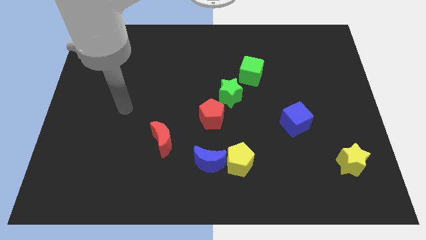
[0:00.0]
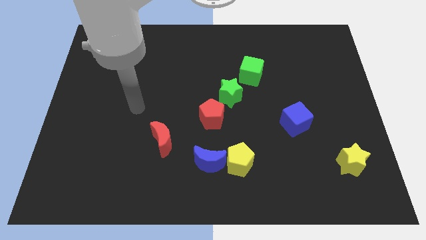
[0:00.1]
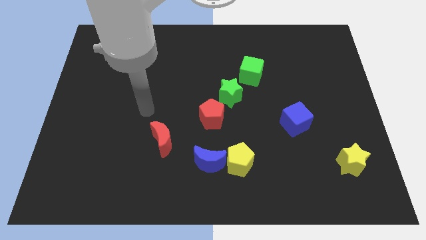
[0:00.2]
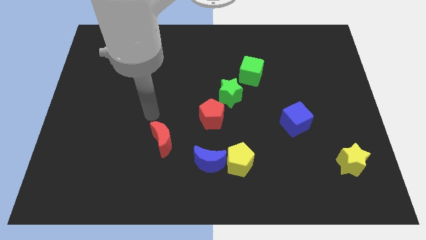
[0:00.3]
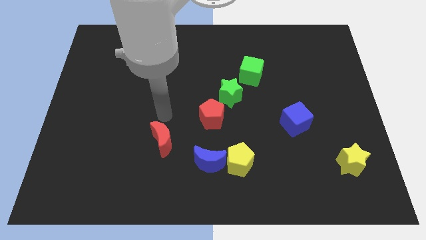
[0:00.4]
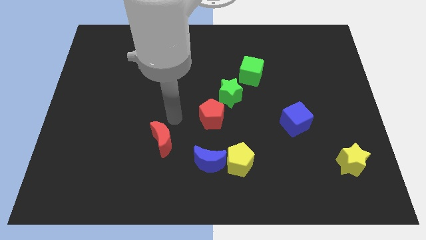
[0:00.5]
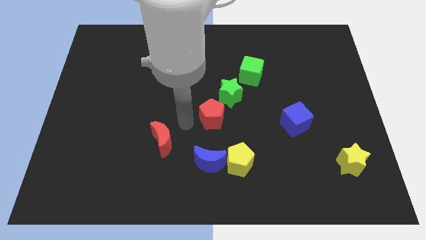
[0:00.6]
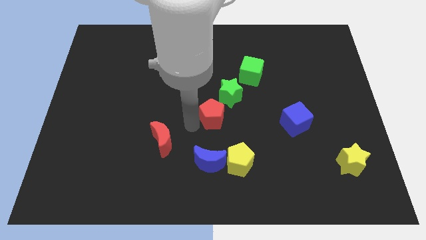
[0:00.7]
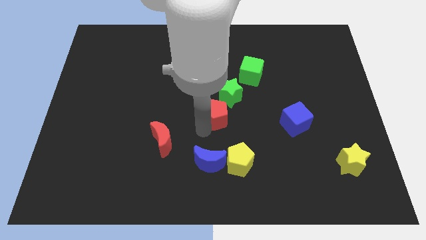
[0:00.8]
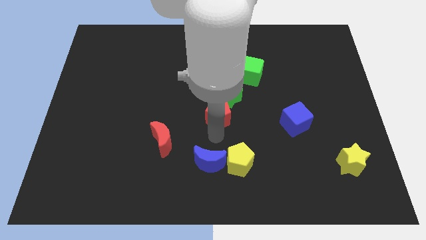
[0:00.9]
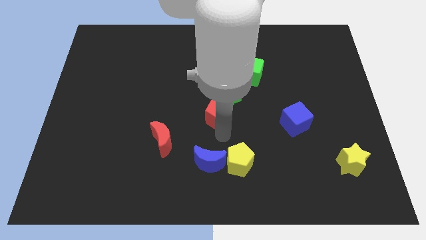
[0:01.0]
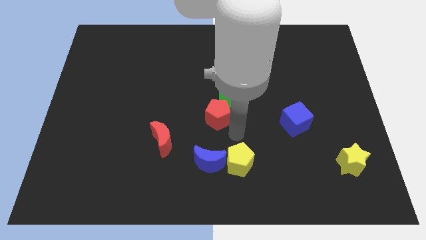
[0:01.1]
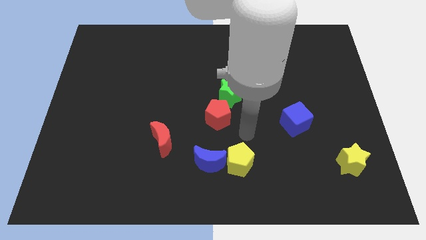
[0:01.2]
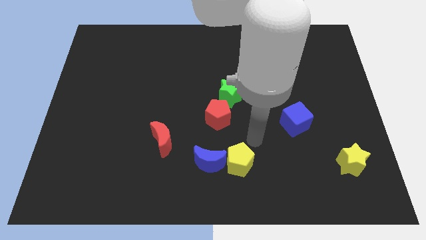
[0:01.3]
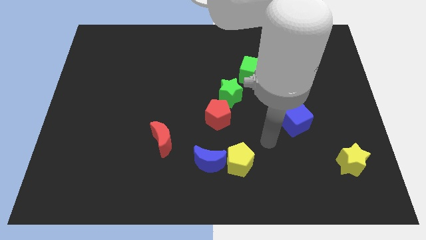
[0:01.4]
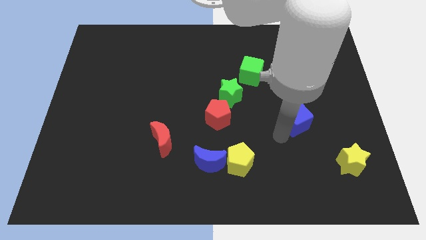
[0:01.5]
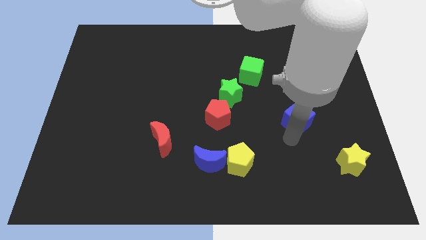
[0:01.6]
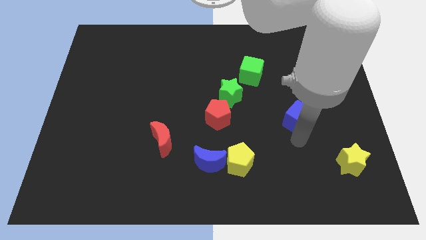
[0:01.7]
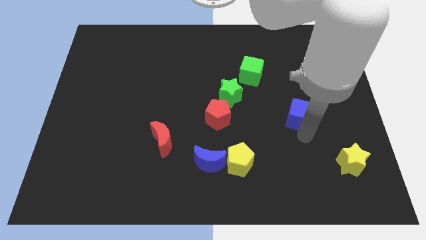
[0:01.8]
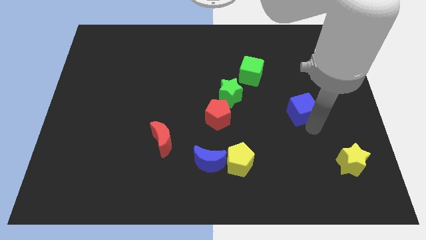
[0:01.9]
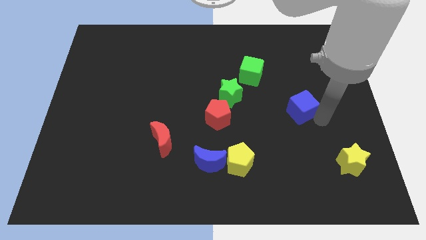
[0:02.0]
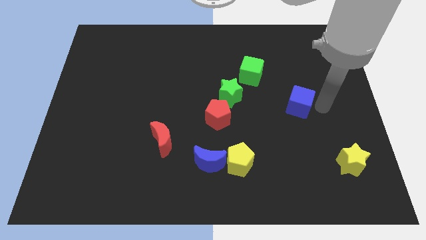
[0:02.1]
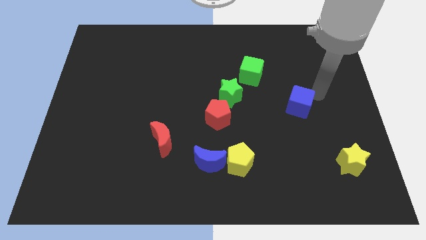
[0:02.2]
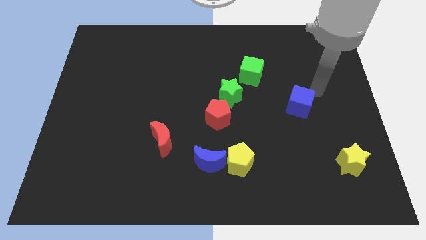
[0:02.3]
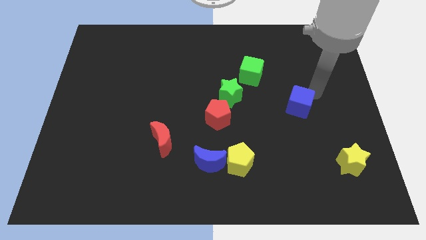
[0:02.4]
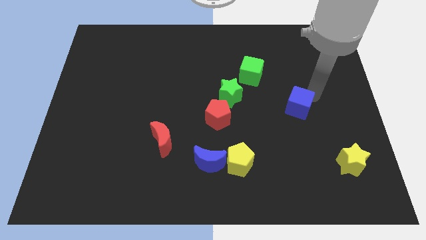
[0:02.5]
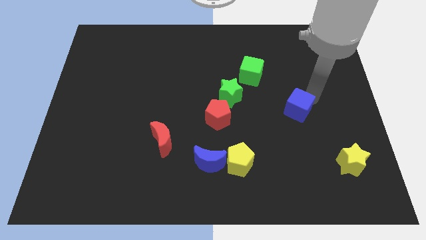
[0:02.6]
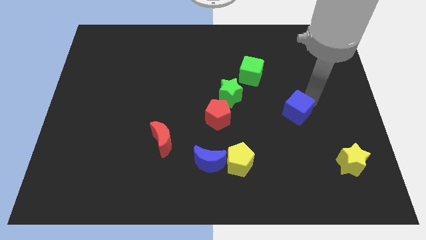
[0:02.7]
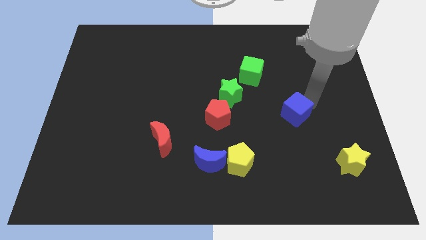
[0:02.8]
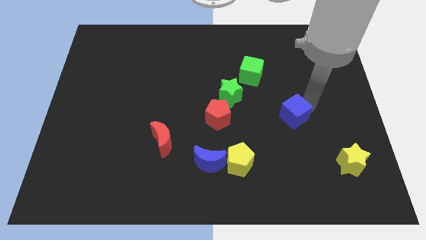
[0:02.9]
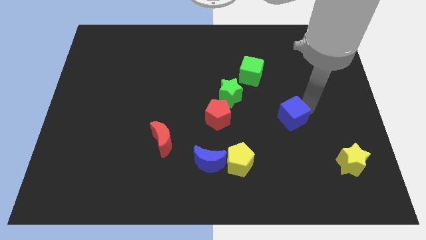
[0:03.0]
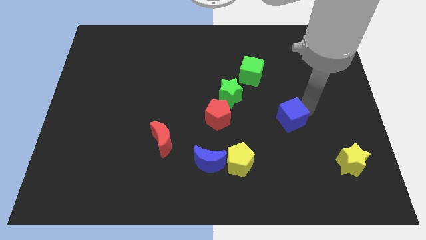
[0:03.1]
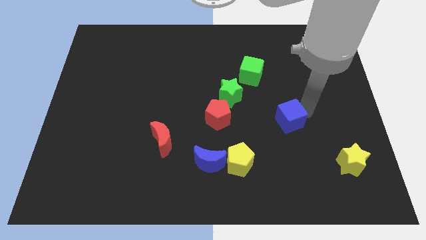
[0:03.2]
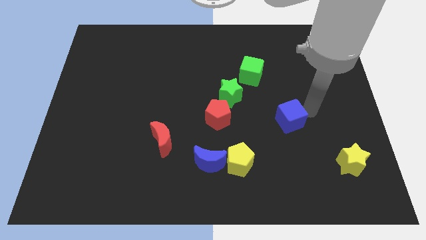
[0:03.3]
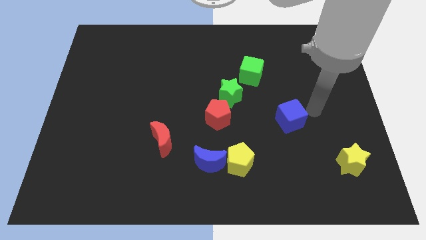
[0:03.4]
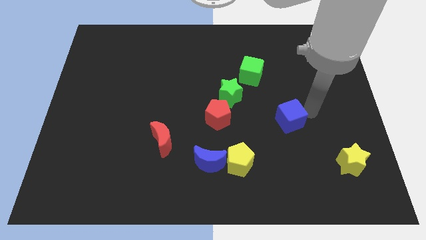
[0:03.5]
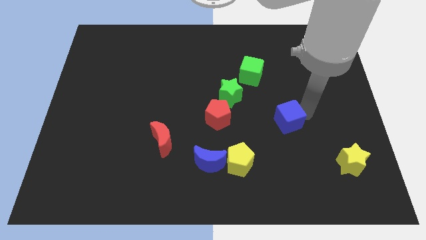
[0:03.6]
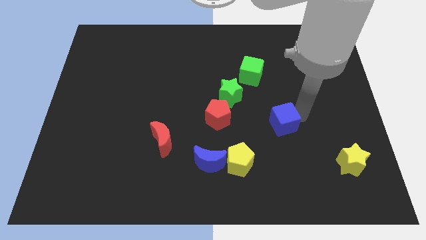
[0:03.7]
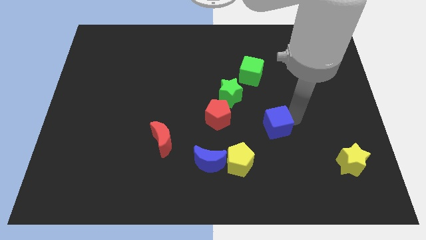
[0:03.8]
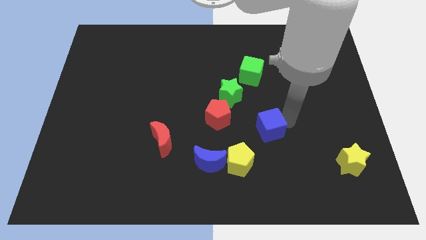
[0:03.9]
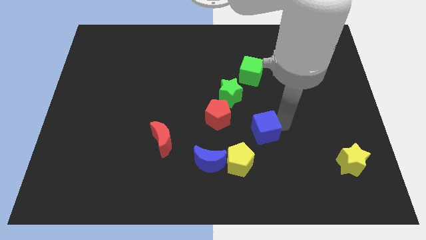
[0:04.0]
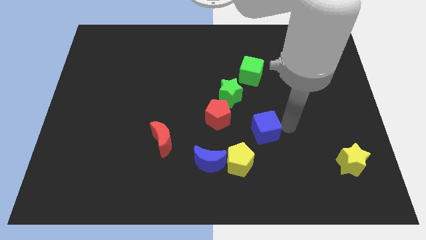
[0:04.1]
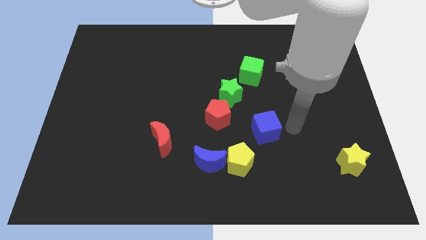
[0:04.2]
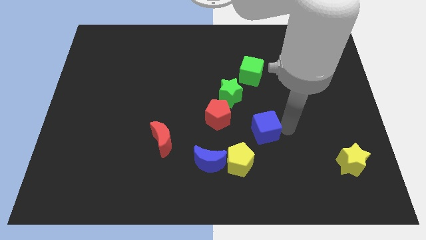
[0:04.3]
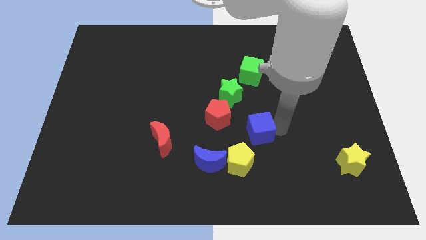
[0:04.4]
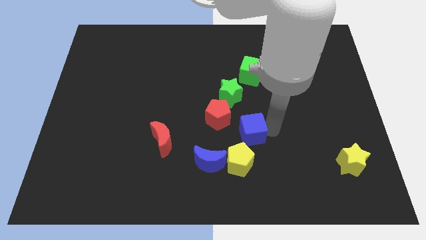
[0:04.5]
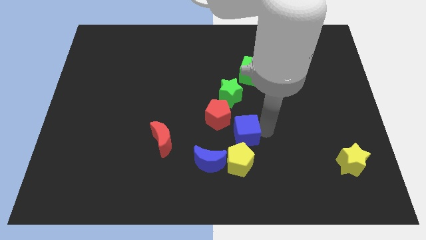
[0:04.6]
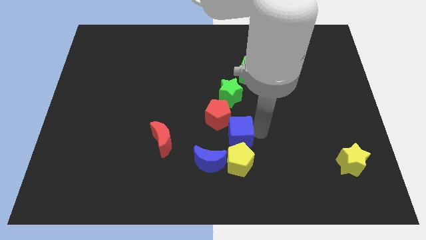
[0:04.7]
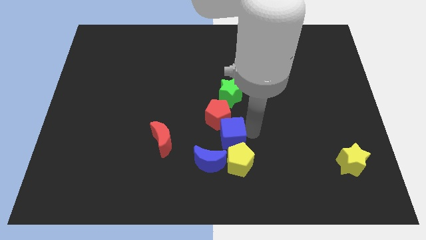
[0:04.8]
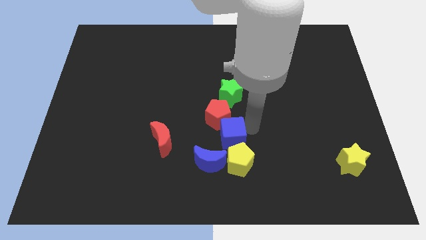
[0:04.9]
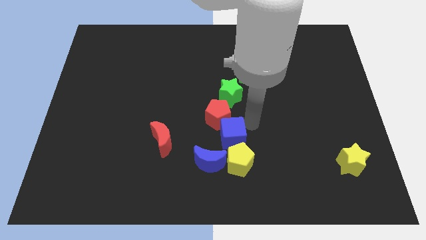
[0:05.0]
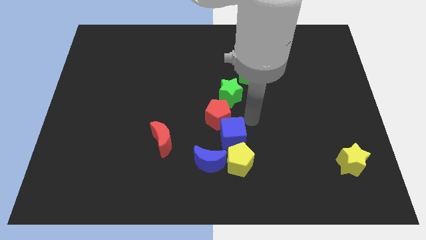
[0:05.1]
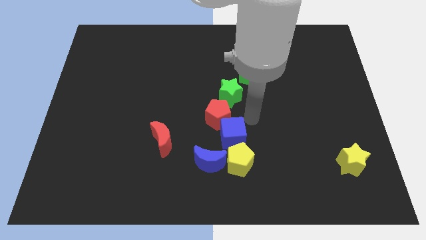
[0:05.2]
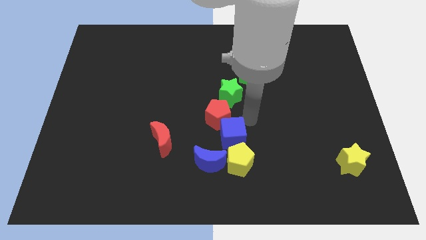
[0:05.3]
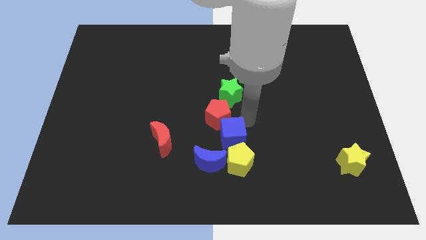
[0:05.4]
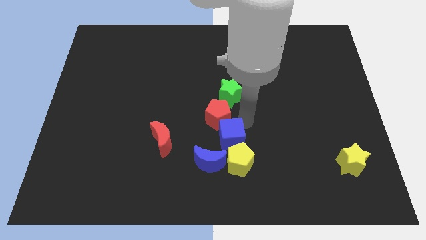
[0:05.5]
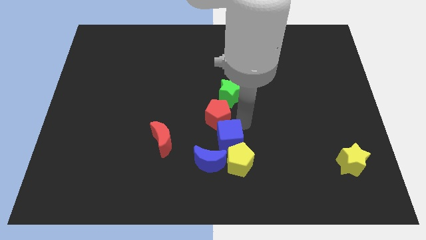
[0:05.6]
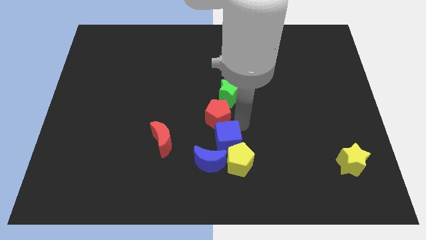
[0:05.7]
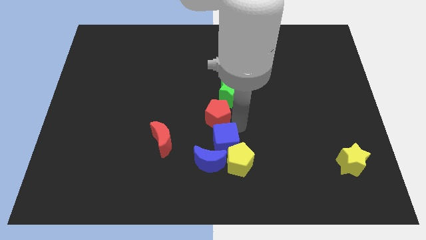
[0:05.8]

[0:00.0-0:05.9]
move the blue cube towards the blue moon

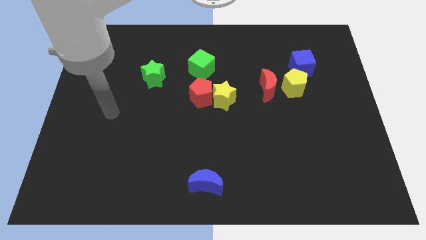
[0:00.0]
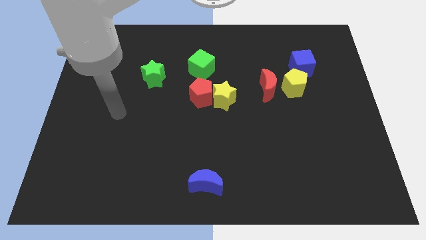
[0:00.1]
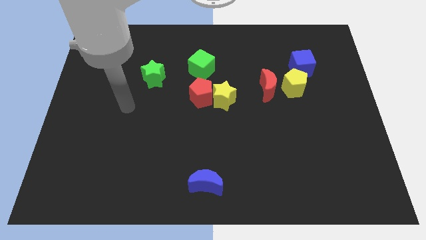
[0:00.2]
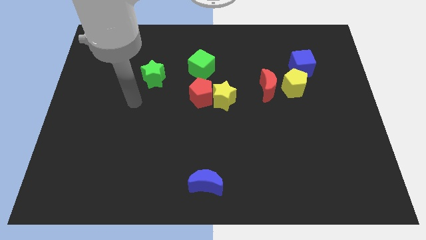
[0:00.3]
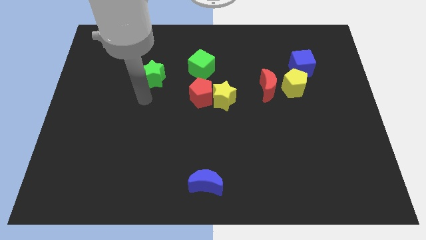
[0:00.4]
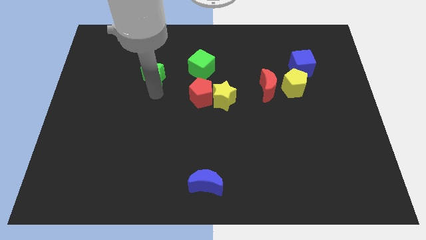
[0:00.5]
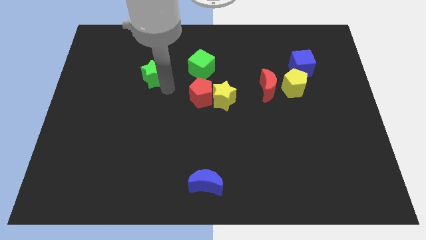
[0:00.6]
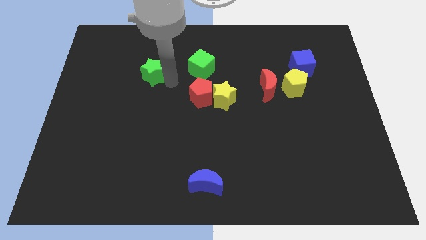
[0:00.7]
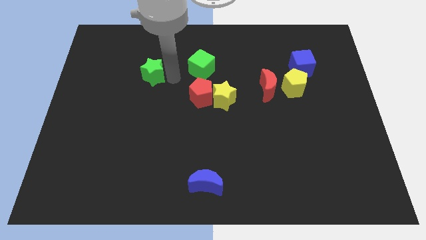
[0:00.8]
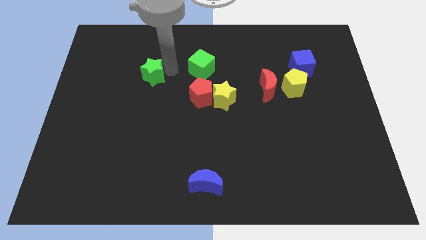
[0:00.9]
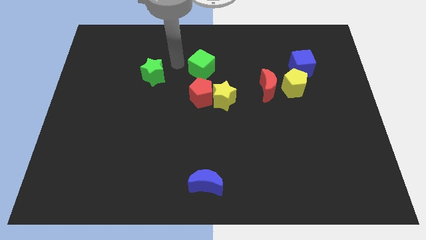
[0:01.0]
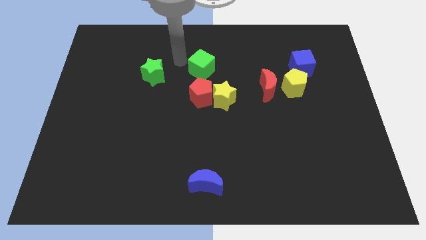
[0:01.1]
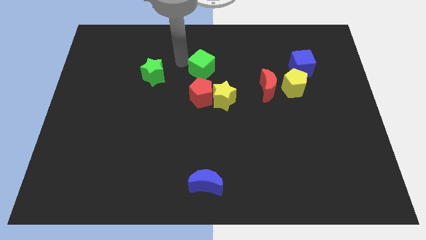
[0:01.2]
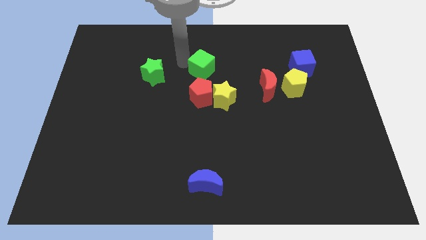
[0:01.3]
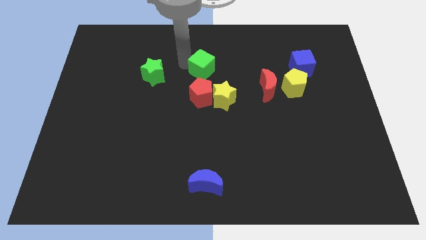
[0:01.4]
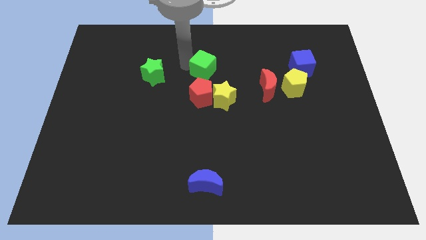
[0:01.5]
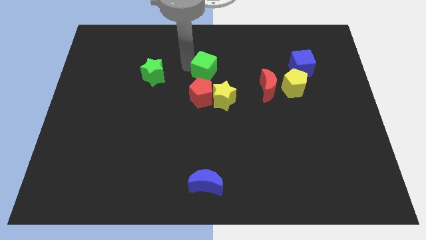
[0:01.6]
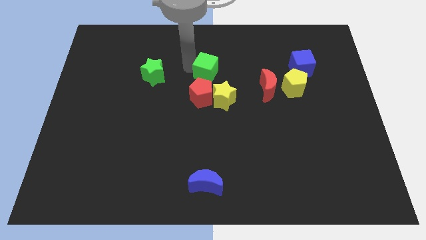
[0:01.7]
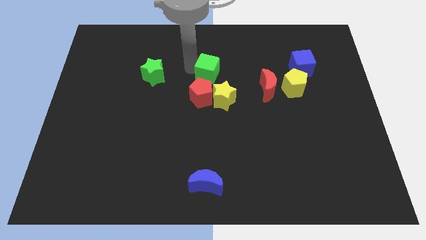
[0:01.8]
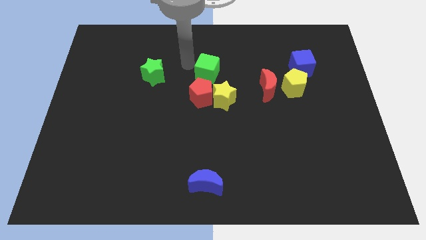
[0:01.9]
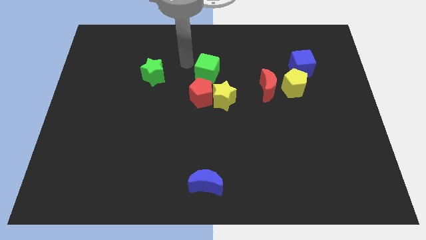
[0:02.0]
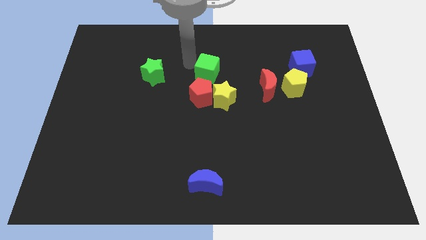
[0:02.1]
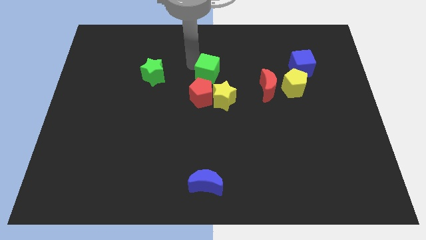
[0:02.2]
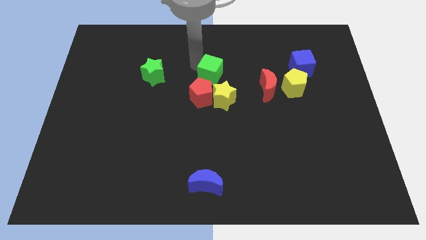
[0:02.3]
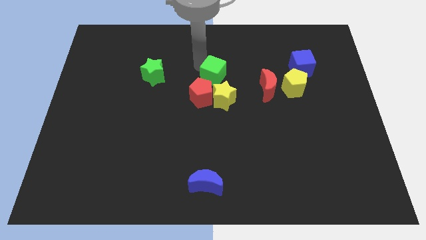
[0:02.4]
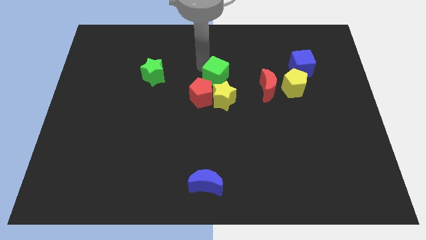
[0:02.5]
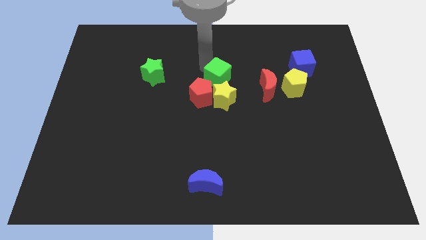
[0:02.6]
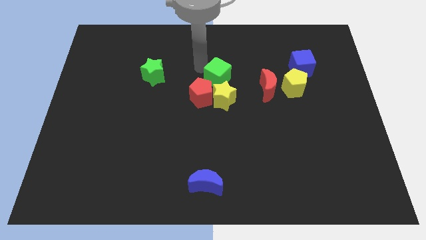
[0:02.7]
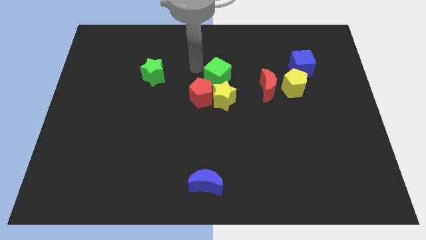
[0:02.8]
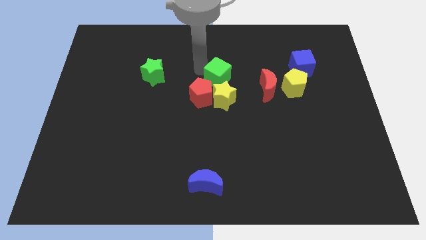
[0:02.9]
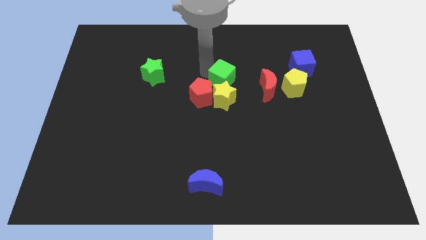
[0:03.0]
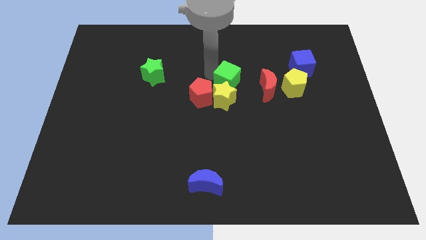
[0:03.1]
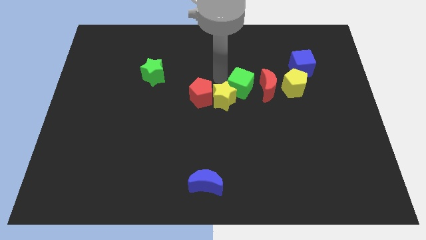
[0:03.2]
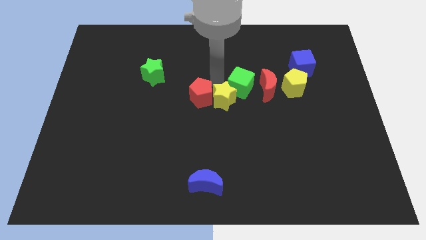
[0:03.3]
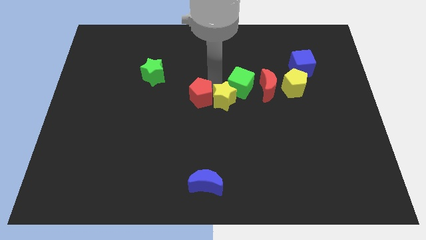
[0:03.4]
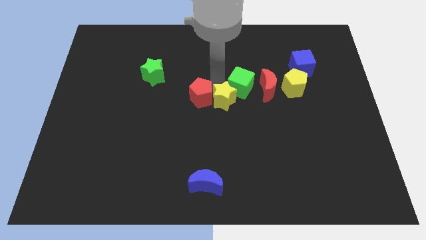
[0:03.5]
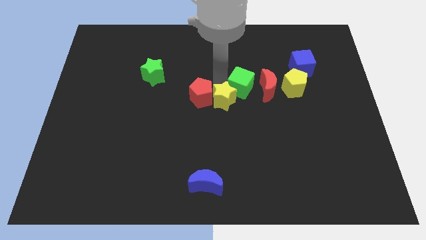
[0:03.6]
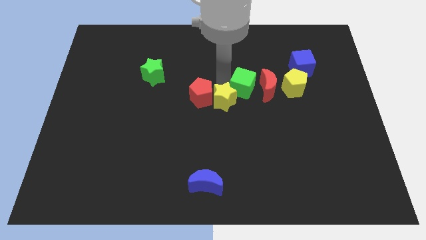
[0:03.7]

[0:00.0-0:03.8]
put the green cube to the red moon
